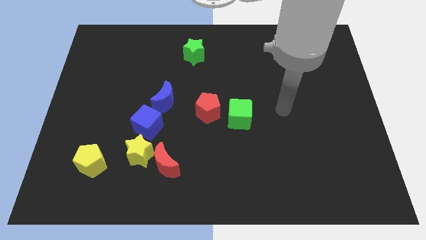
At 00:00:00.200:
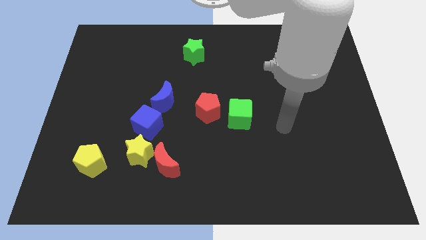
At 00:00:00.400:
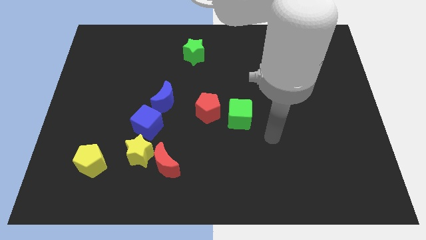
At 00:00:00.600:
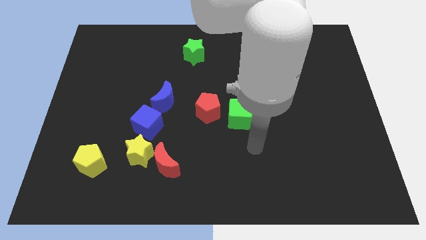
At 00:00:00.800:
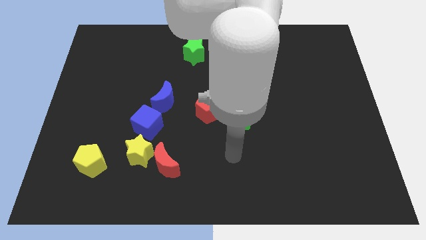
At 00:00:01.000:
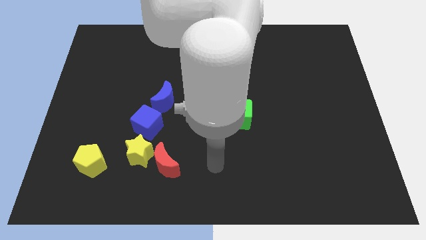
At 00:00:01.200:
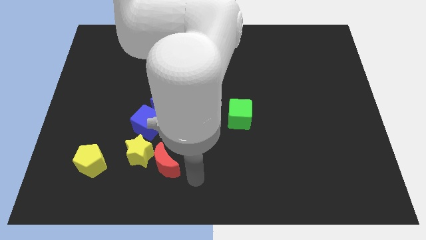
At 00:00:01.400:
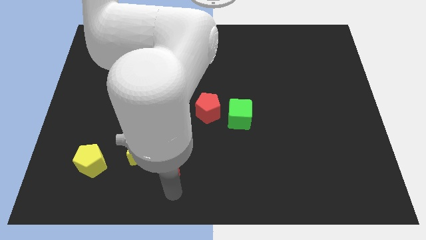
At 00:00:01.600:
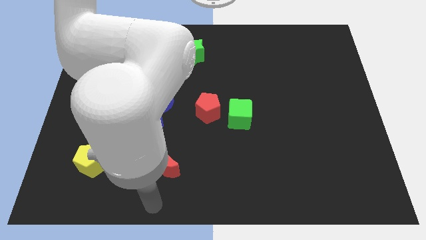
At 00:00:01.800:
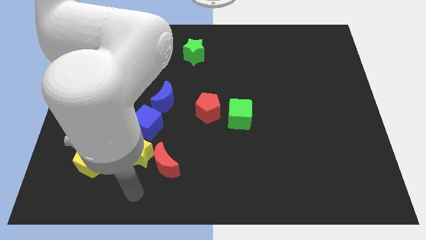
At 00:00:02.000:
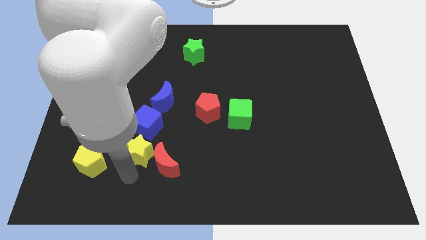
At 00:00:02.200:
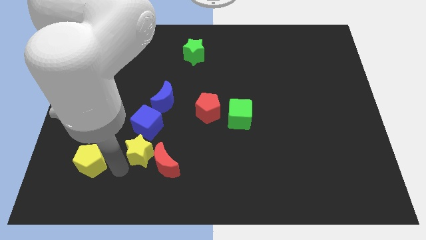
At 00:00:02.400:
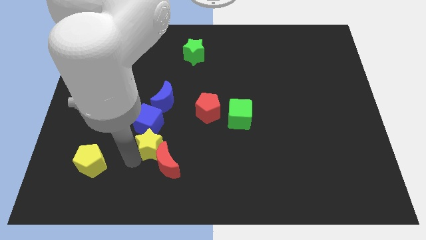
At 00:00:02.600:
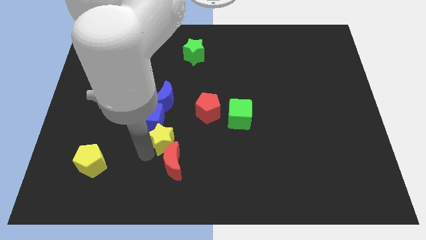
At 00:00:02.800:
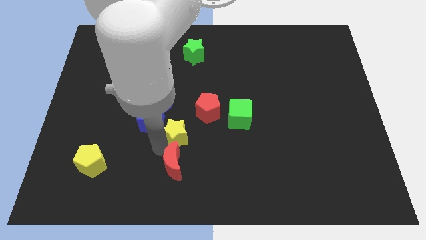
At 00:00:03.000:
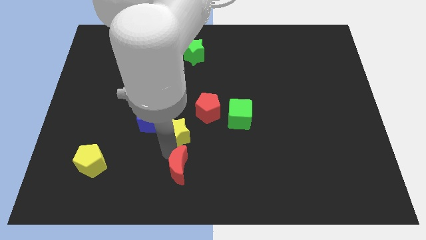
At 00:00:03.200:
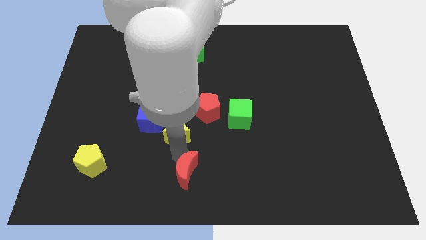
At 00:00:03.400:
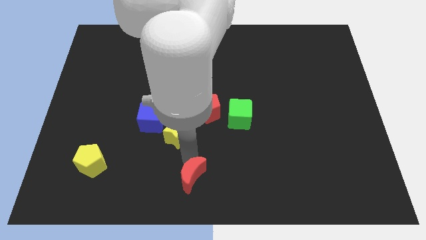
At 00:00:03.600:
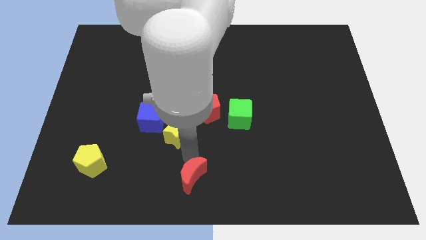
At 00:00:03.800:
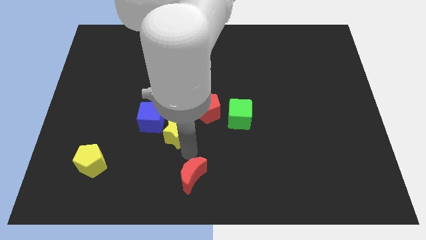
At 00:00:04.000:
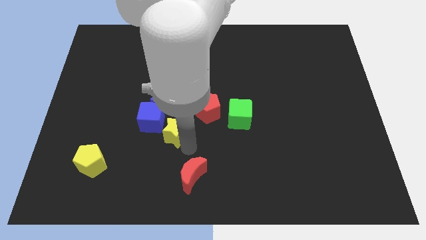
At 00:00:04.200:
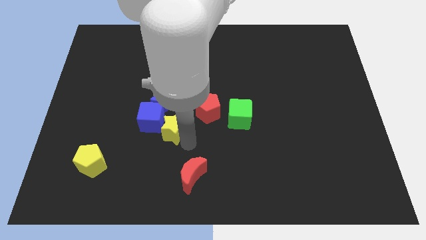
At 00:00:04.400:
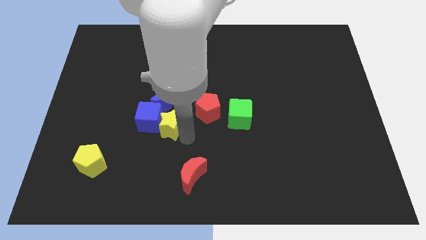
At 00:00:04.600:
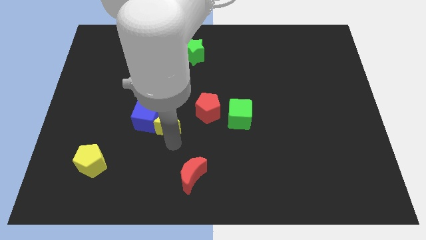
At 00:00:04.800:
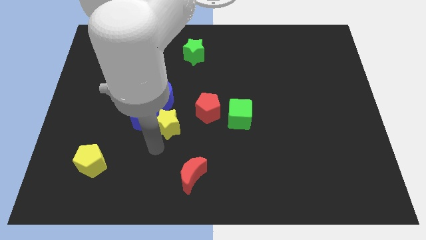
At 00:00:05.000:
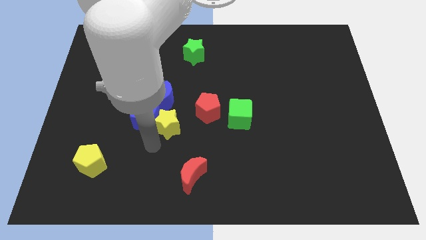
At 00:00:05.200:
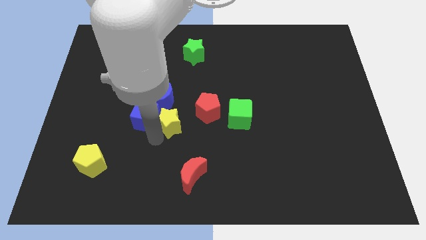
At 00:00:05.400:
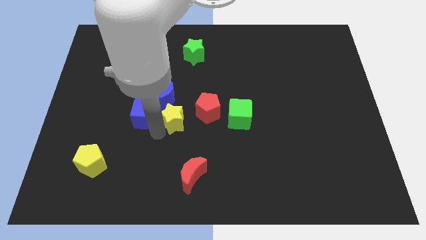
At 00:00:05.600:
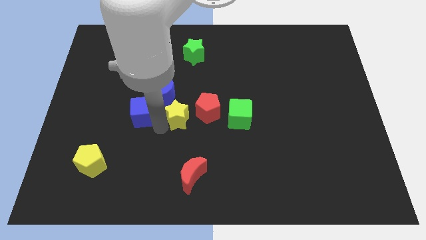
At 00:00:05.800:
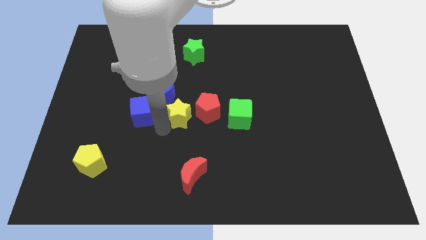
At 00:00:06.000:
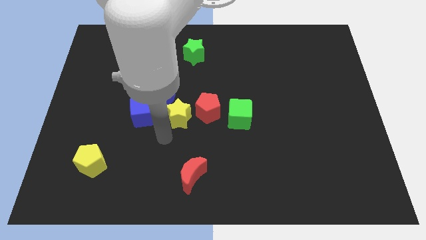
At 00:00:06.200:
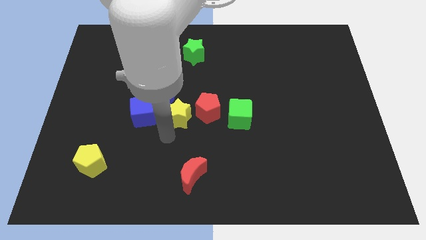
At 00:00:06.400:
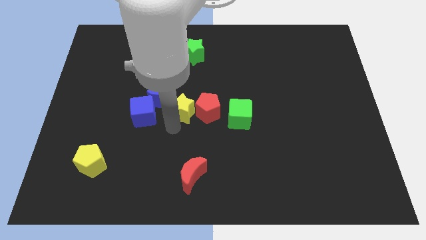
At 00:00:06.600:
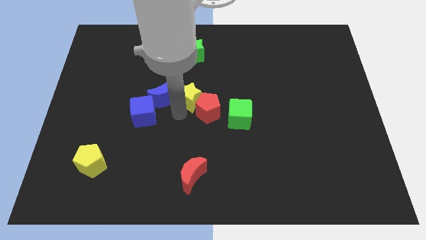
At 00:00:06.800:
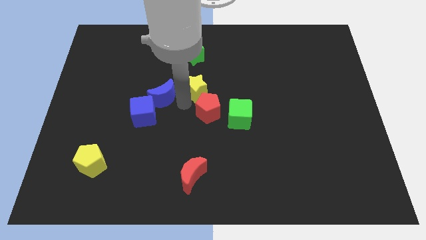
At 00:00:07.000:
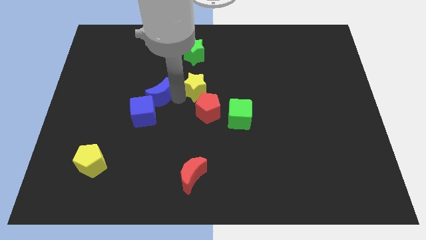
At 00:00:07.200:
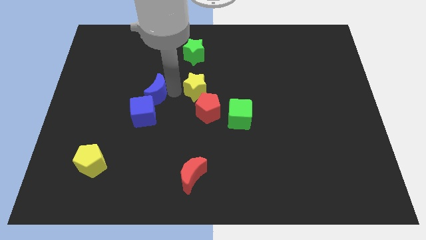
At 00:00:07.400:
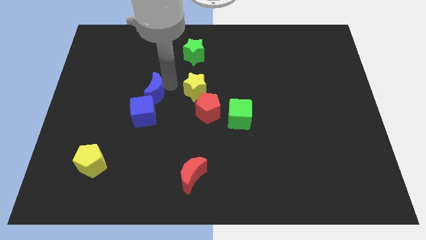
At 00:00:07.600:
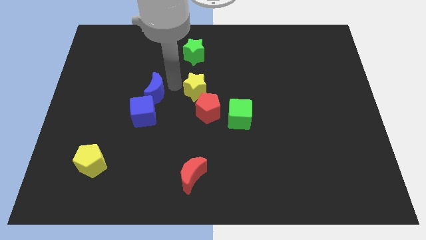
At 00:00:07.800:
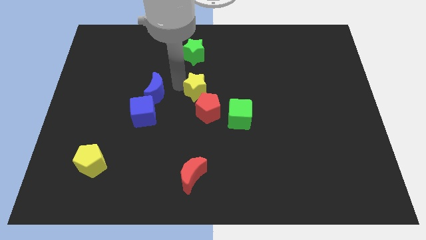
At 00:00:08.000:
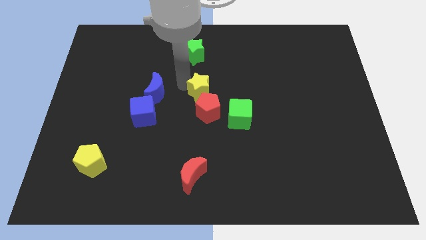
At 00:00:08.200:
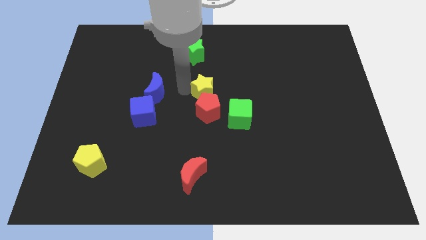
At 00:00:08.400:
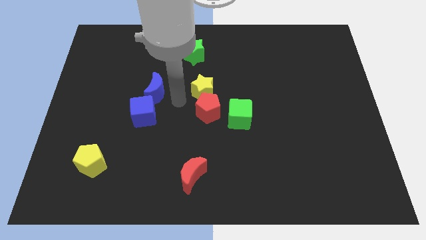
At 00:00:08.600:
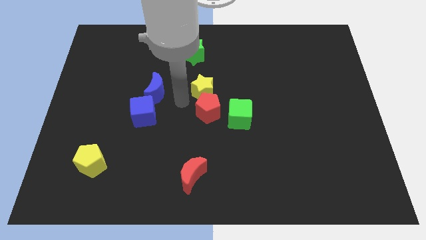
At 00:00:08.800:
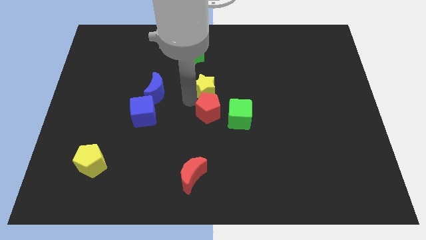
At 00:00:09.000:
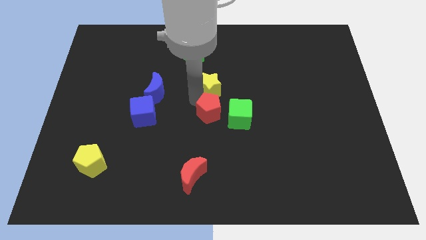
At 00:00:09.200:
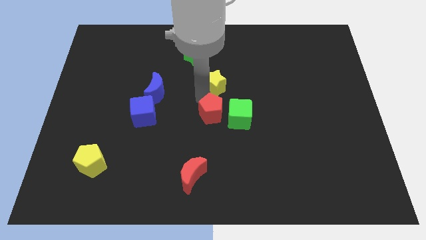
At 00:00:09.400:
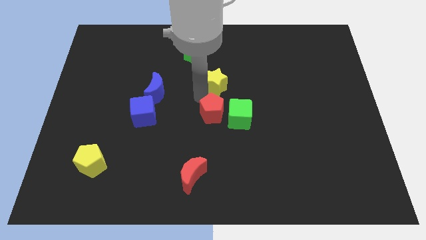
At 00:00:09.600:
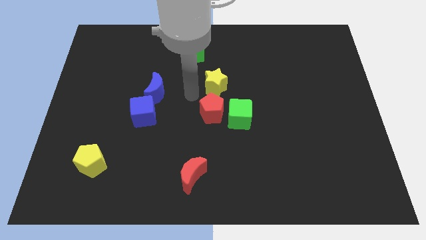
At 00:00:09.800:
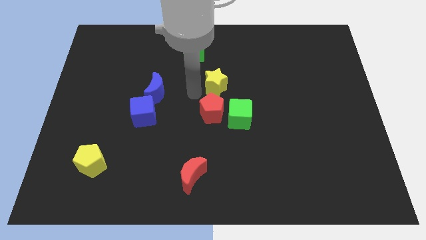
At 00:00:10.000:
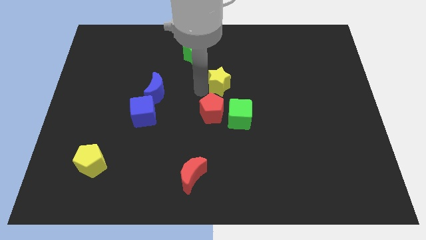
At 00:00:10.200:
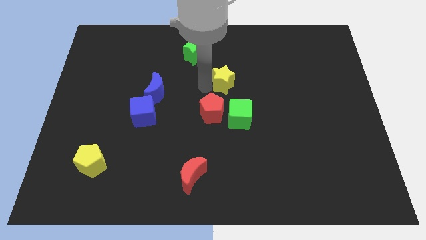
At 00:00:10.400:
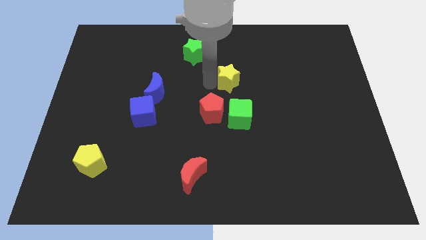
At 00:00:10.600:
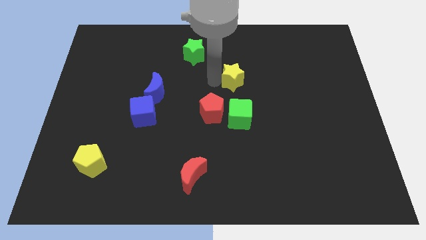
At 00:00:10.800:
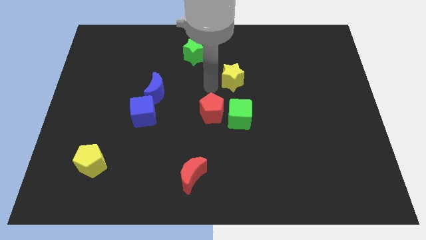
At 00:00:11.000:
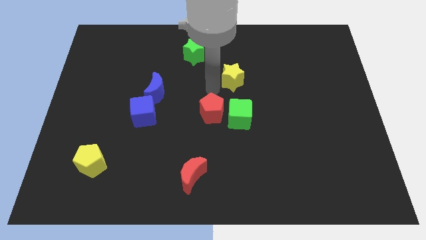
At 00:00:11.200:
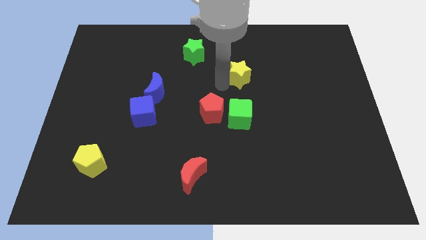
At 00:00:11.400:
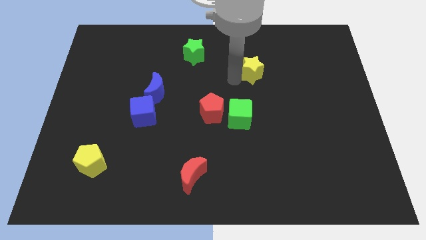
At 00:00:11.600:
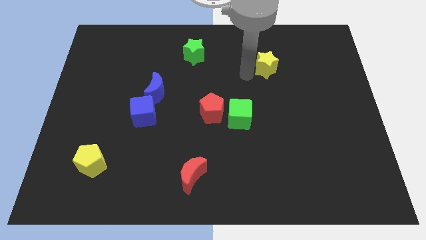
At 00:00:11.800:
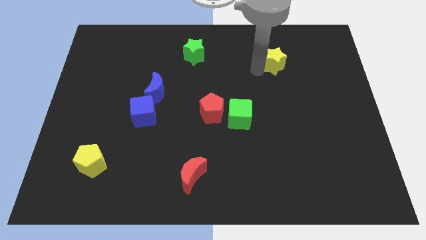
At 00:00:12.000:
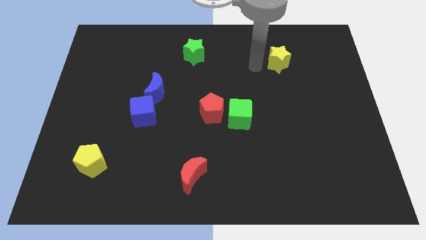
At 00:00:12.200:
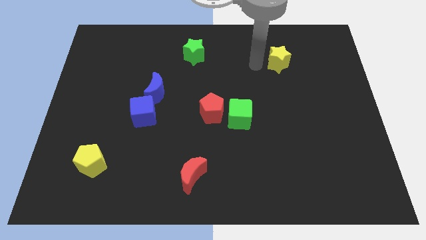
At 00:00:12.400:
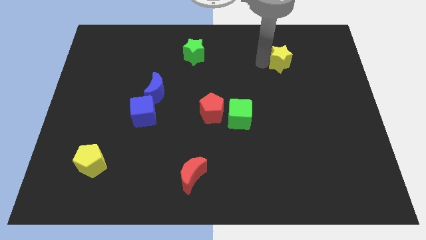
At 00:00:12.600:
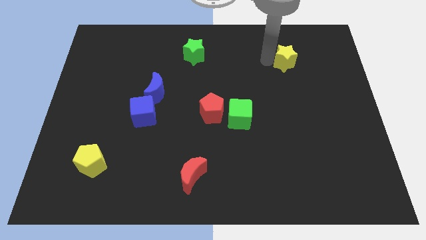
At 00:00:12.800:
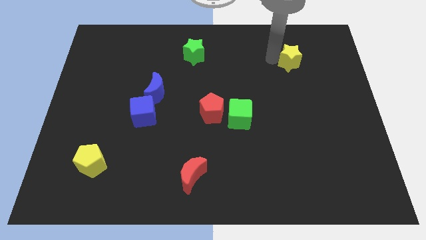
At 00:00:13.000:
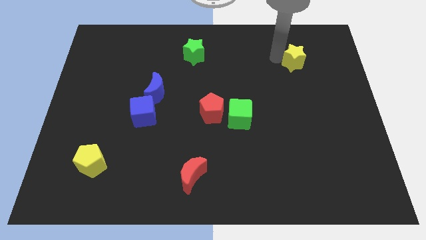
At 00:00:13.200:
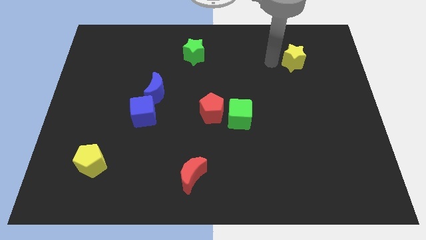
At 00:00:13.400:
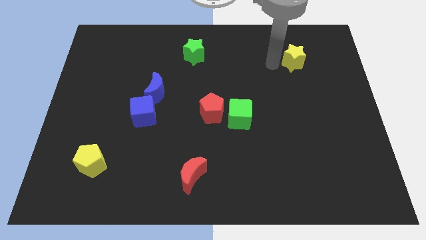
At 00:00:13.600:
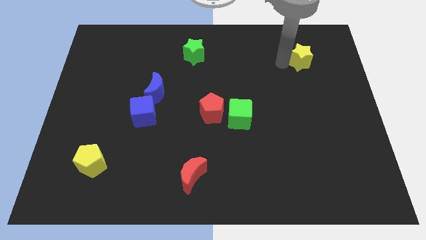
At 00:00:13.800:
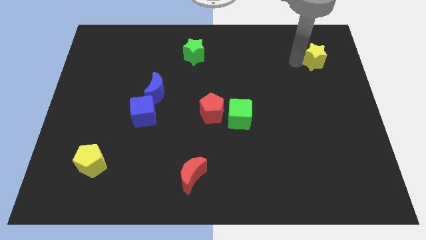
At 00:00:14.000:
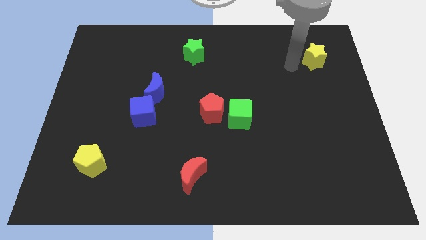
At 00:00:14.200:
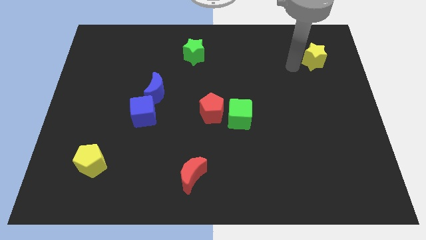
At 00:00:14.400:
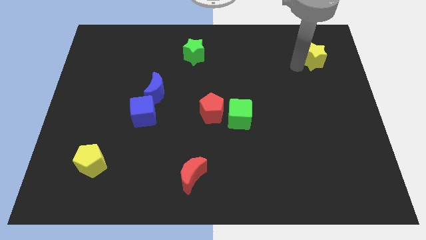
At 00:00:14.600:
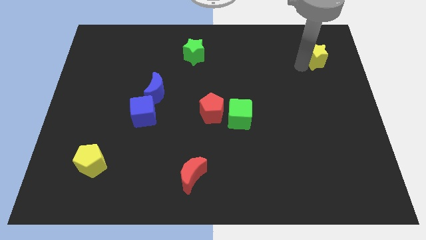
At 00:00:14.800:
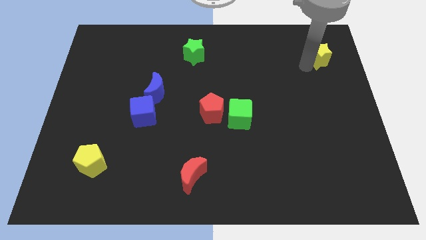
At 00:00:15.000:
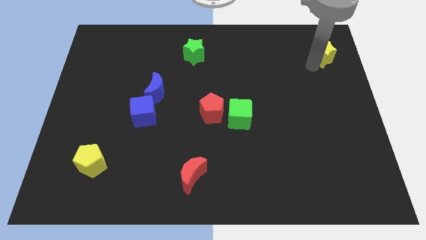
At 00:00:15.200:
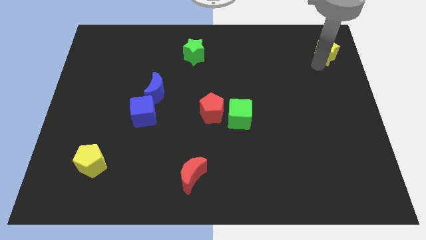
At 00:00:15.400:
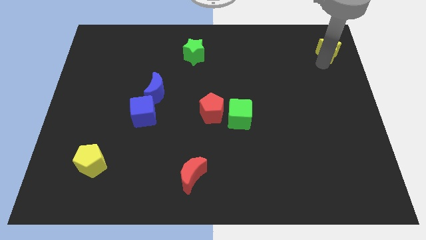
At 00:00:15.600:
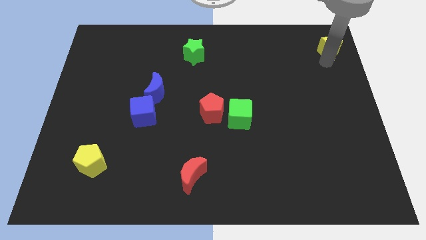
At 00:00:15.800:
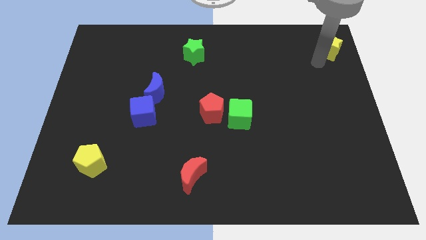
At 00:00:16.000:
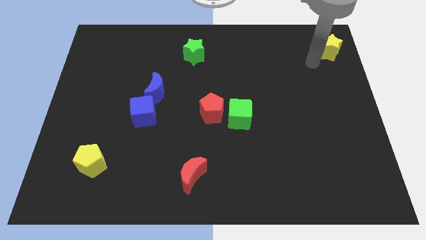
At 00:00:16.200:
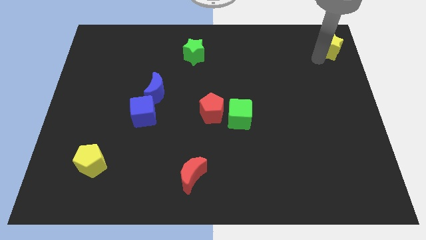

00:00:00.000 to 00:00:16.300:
put the yellow star to the top right
